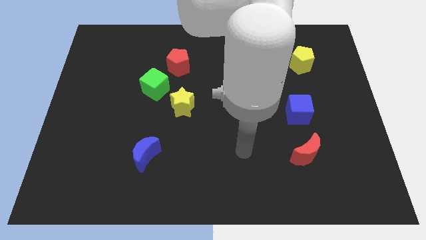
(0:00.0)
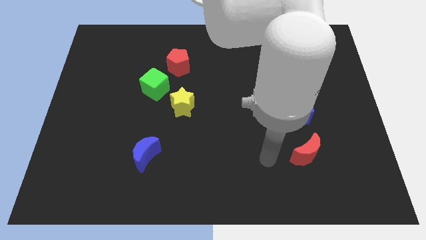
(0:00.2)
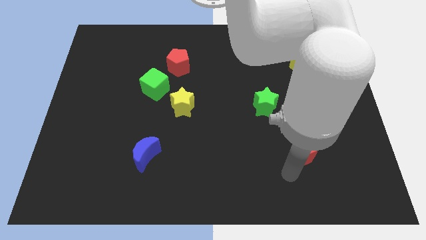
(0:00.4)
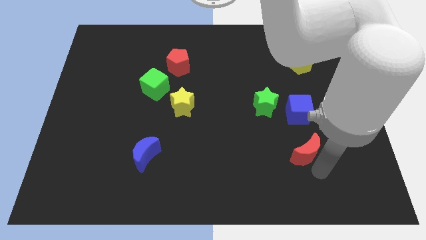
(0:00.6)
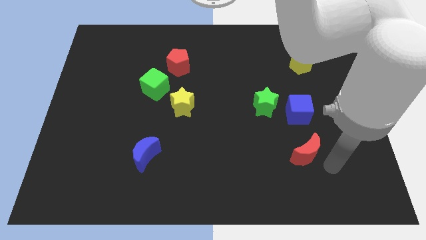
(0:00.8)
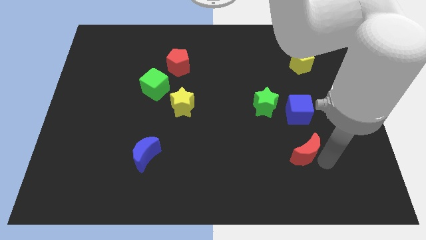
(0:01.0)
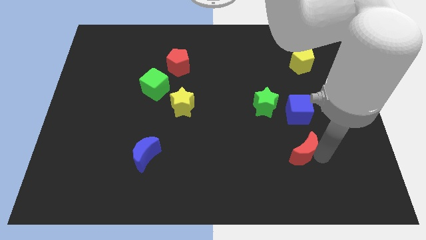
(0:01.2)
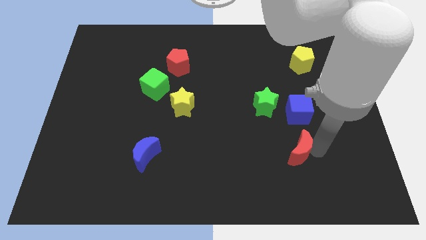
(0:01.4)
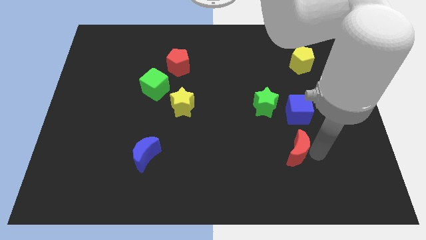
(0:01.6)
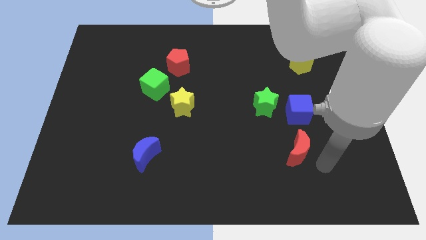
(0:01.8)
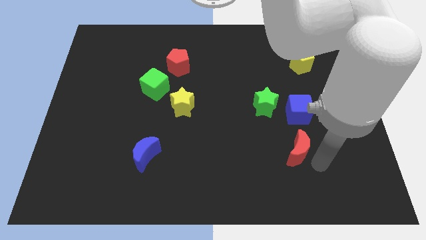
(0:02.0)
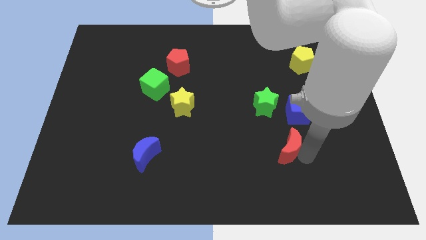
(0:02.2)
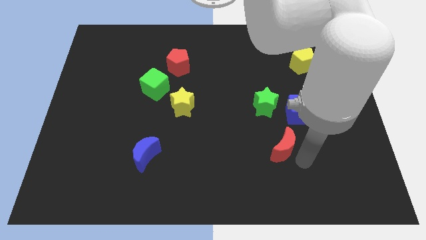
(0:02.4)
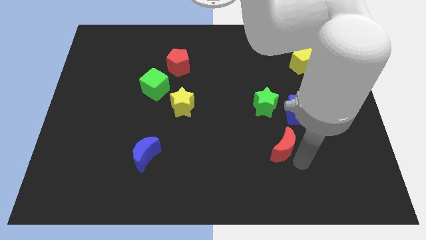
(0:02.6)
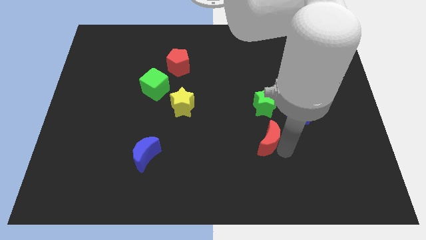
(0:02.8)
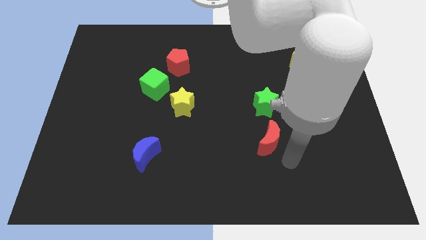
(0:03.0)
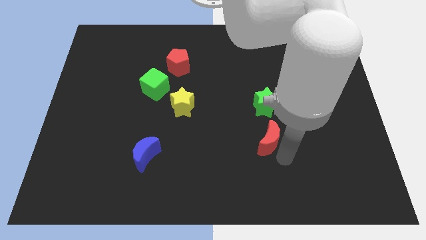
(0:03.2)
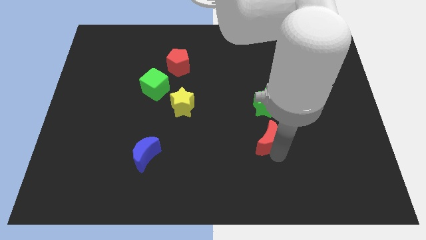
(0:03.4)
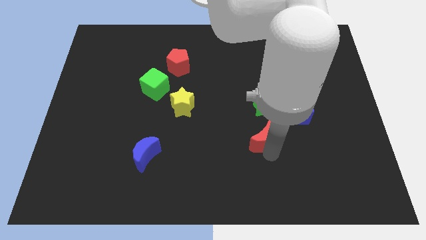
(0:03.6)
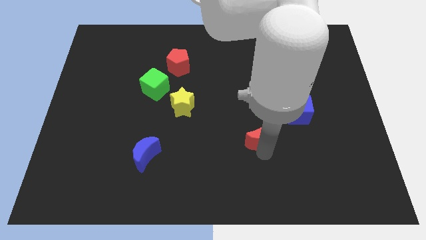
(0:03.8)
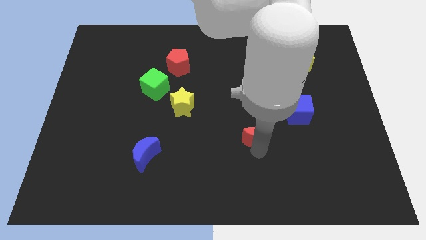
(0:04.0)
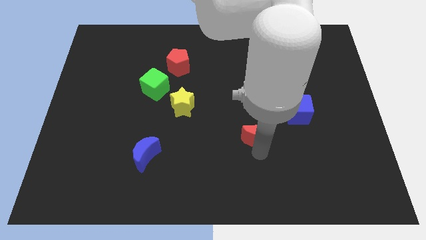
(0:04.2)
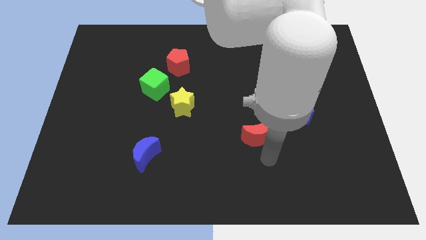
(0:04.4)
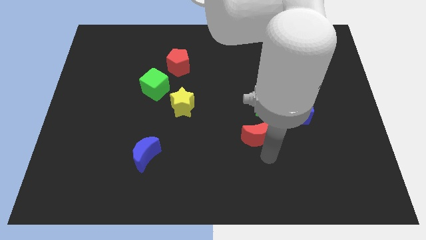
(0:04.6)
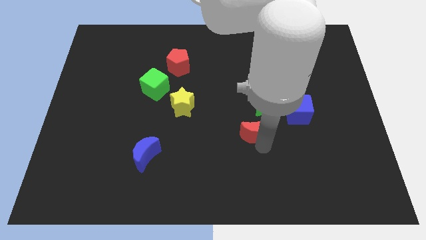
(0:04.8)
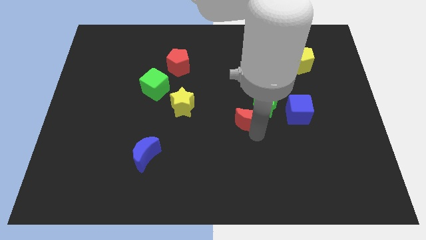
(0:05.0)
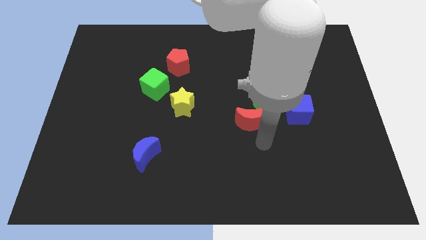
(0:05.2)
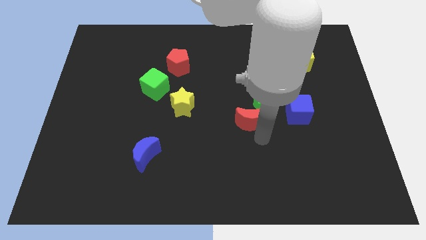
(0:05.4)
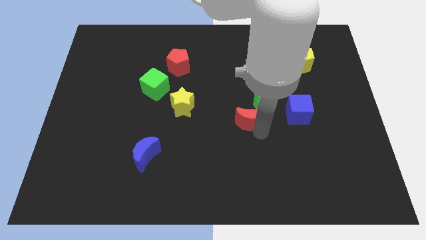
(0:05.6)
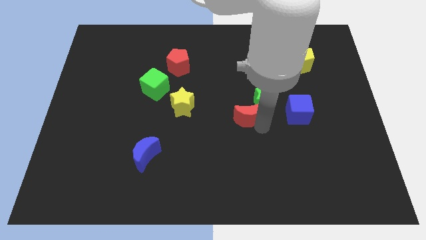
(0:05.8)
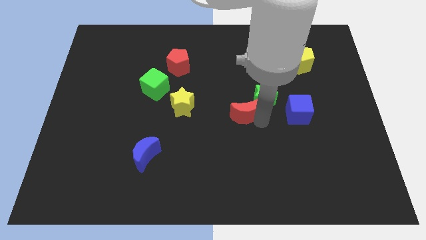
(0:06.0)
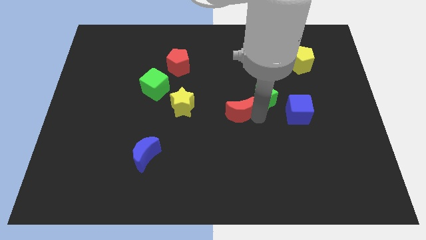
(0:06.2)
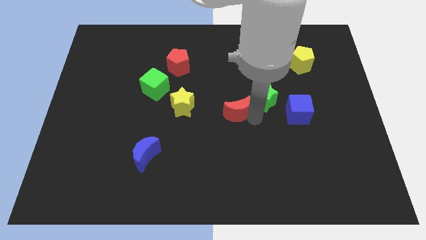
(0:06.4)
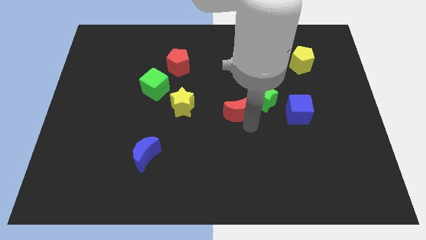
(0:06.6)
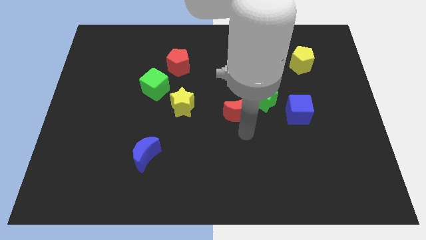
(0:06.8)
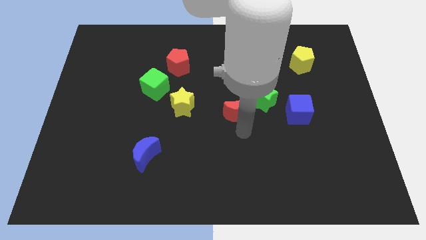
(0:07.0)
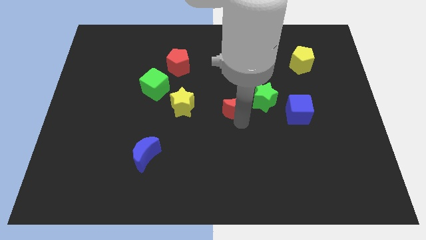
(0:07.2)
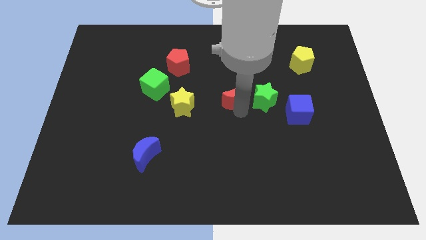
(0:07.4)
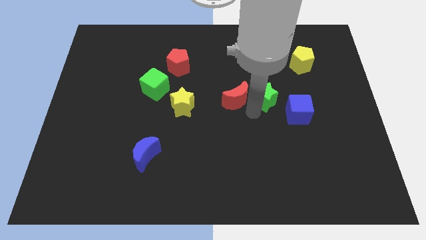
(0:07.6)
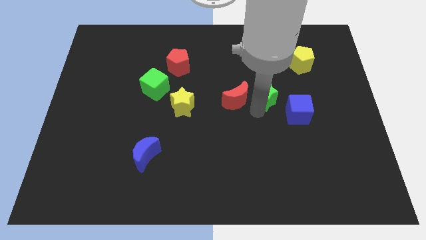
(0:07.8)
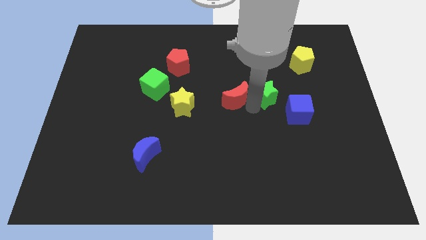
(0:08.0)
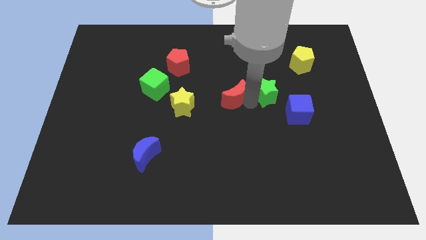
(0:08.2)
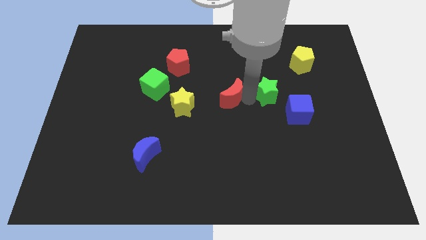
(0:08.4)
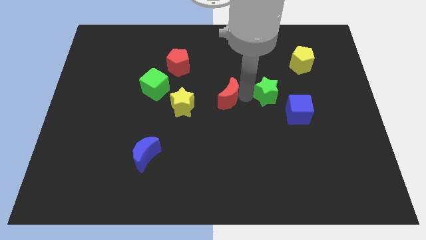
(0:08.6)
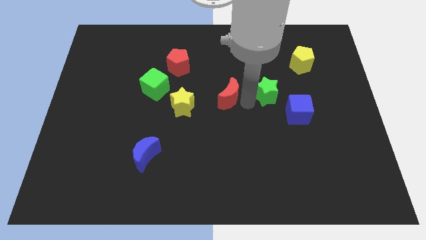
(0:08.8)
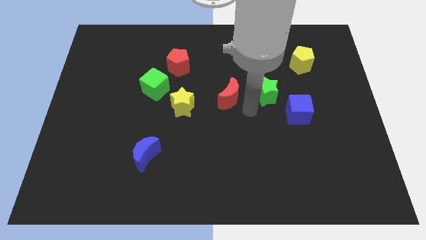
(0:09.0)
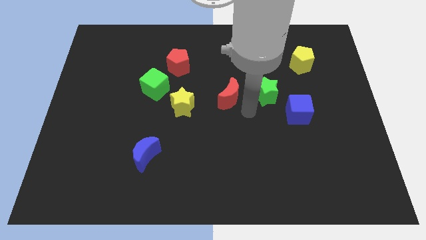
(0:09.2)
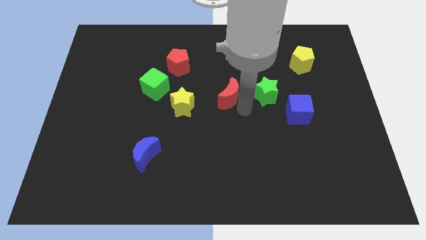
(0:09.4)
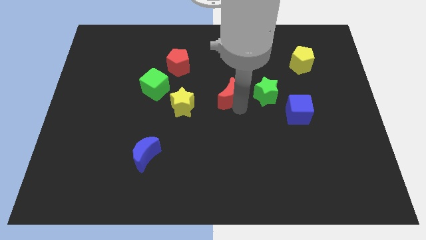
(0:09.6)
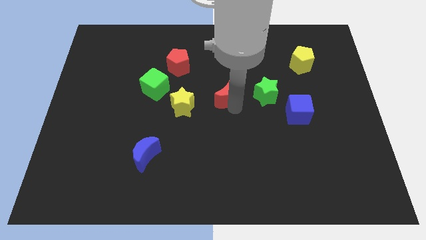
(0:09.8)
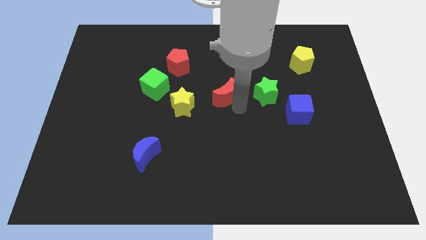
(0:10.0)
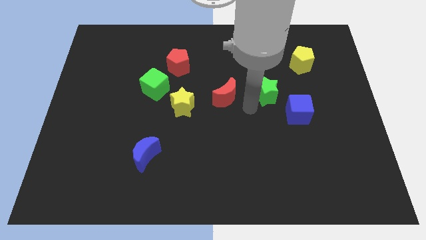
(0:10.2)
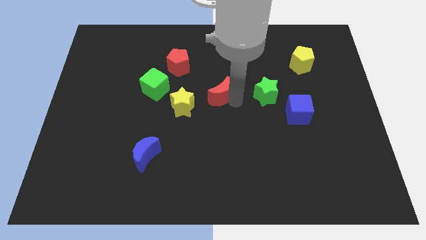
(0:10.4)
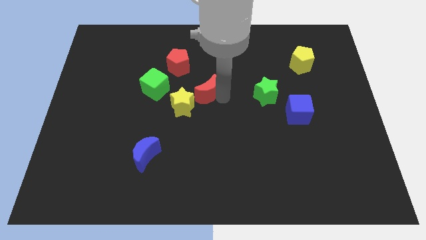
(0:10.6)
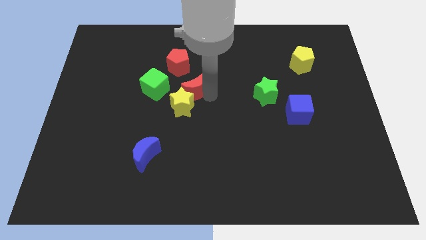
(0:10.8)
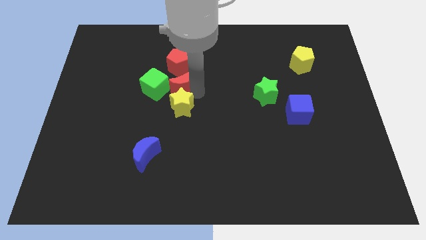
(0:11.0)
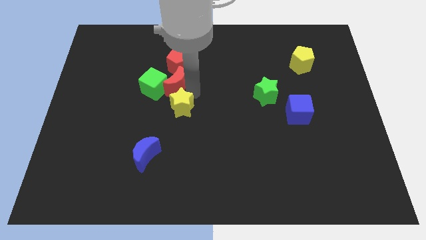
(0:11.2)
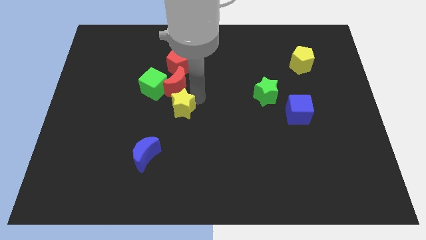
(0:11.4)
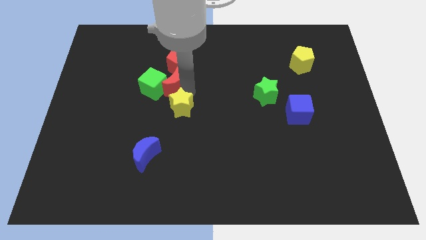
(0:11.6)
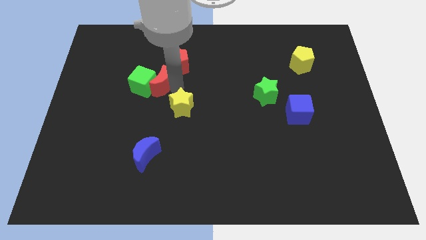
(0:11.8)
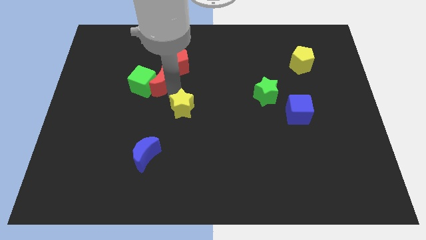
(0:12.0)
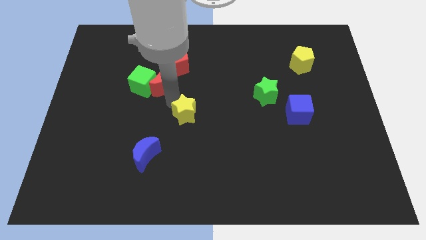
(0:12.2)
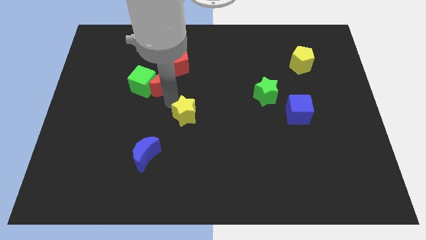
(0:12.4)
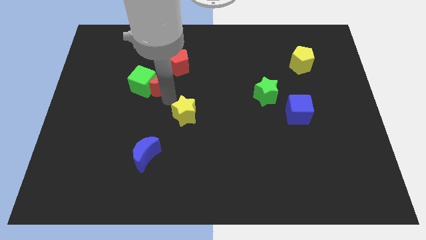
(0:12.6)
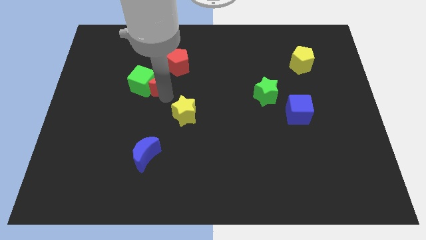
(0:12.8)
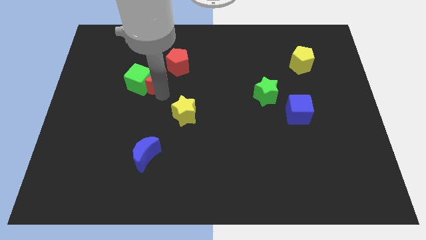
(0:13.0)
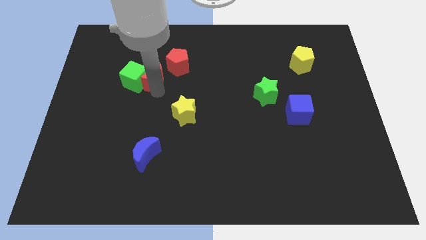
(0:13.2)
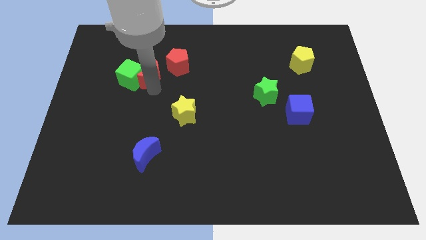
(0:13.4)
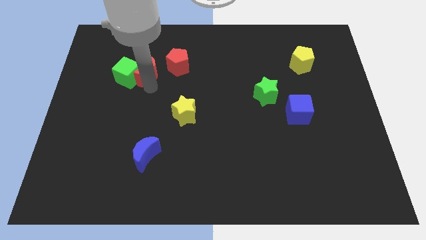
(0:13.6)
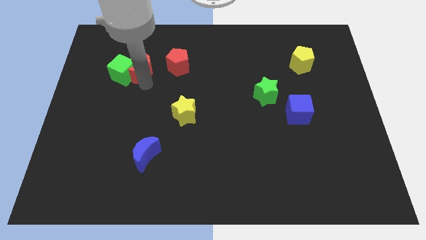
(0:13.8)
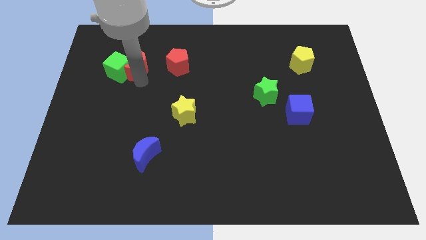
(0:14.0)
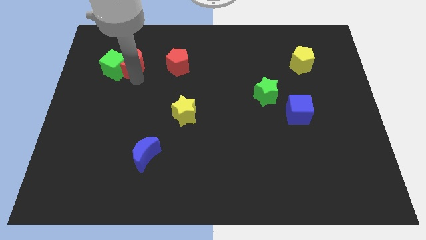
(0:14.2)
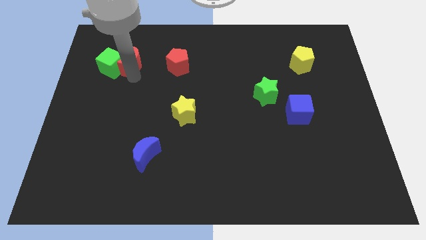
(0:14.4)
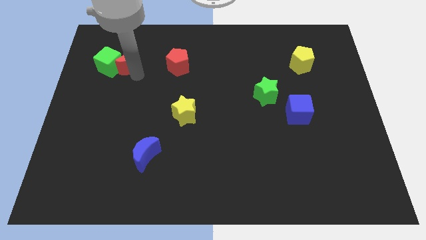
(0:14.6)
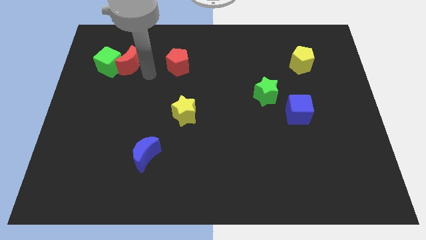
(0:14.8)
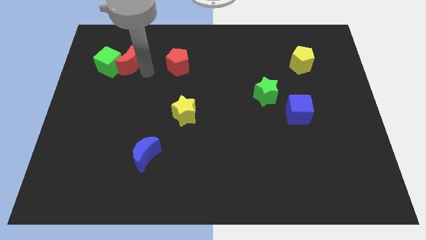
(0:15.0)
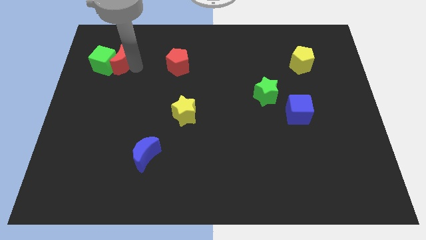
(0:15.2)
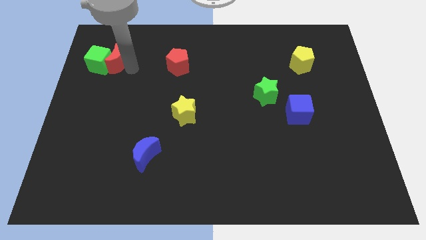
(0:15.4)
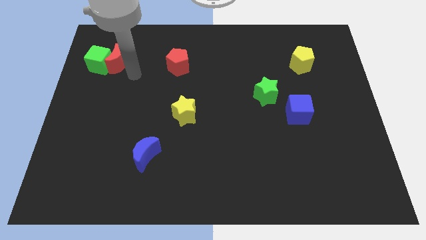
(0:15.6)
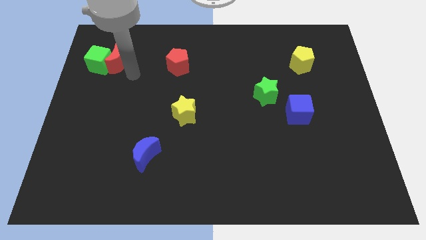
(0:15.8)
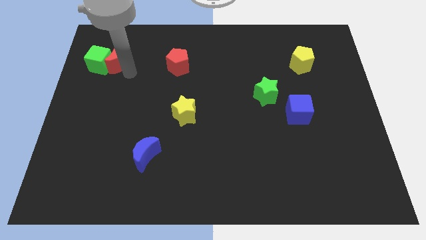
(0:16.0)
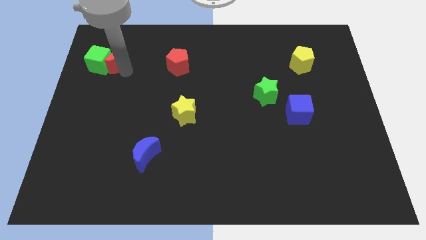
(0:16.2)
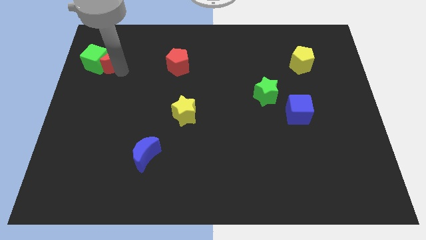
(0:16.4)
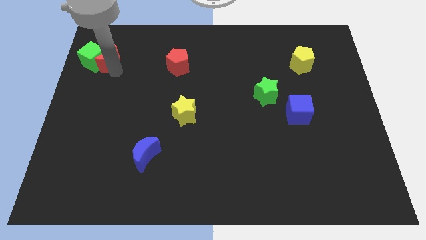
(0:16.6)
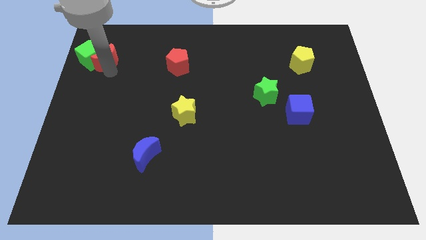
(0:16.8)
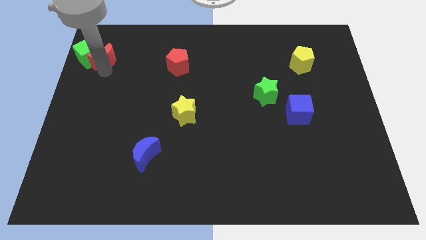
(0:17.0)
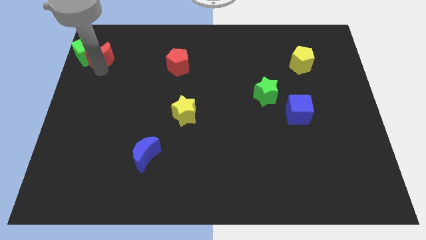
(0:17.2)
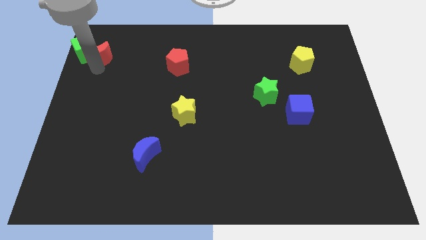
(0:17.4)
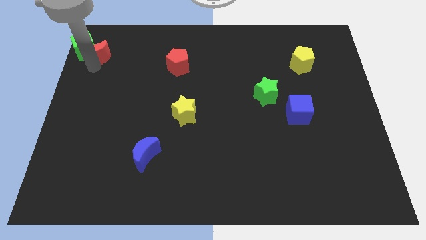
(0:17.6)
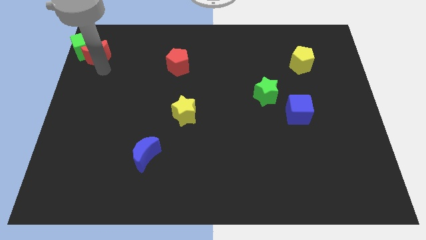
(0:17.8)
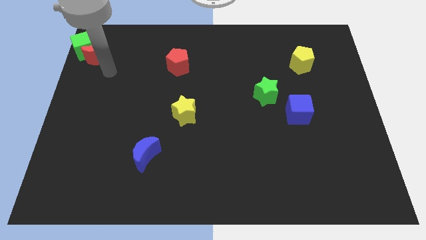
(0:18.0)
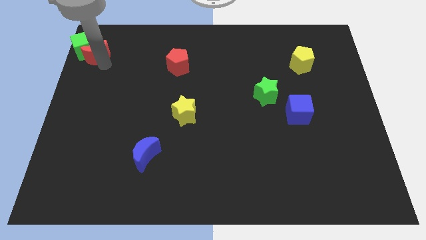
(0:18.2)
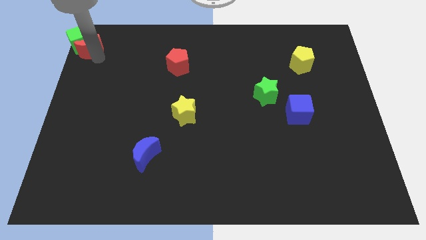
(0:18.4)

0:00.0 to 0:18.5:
put the red moon to the upper left corner
